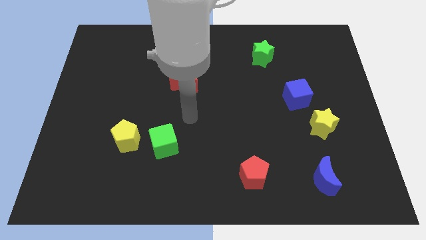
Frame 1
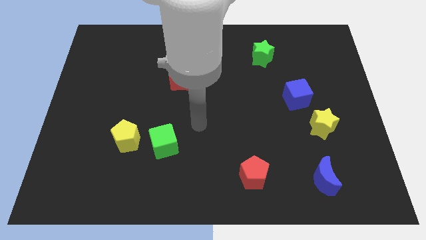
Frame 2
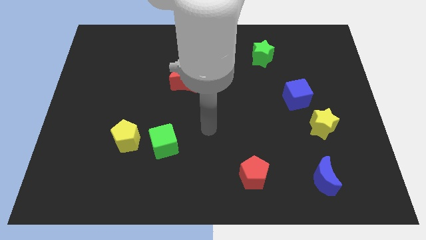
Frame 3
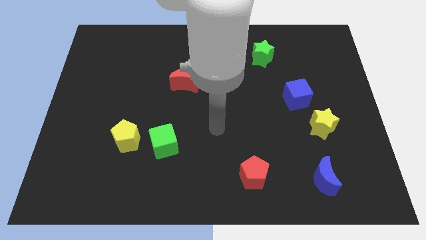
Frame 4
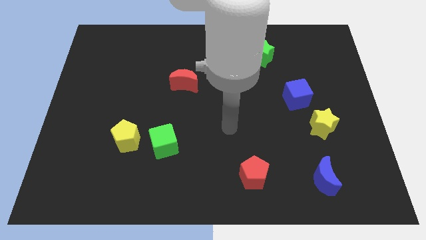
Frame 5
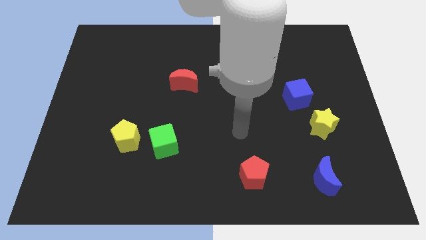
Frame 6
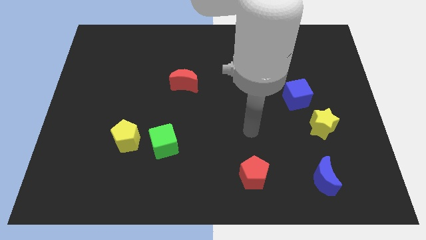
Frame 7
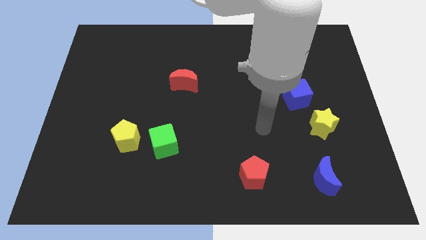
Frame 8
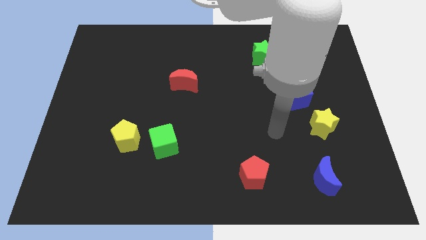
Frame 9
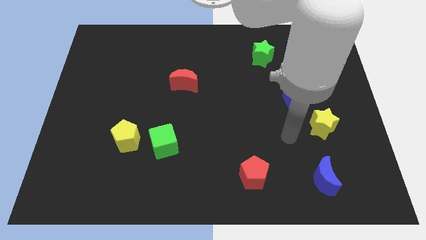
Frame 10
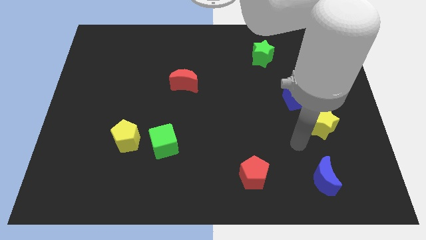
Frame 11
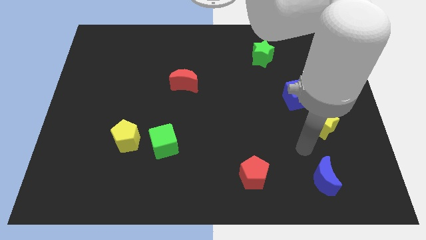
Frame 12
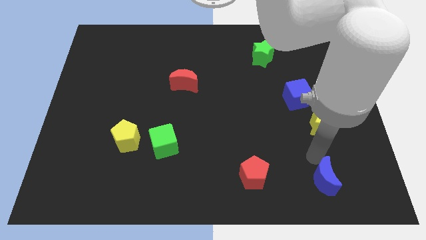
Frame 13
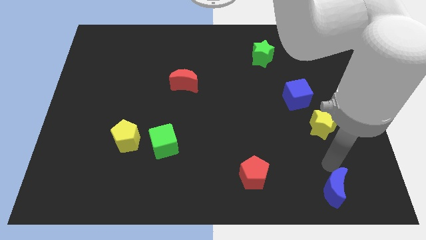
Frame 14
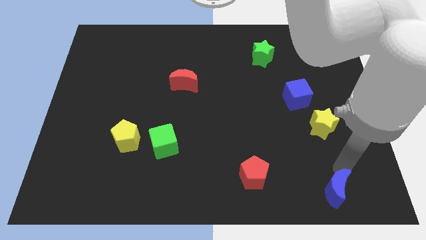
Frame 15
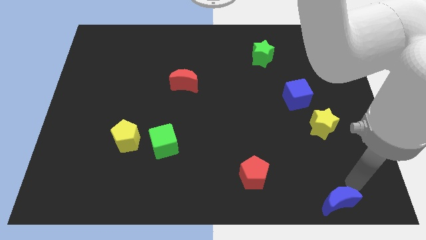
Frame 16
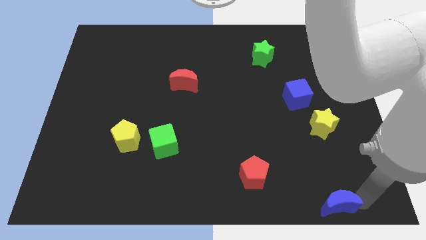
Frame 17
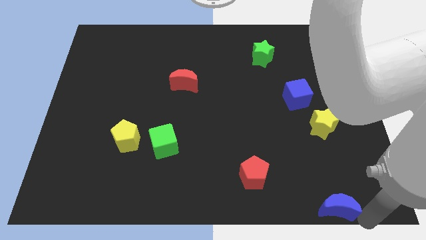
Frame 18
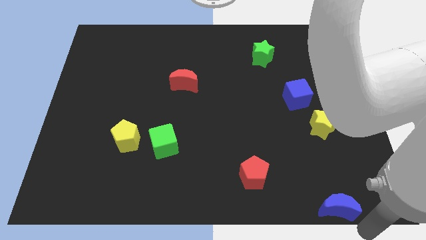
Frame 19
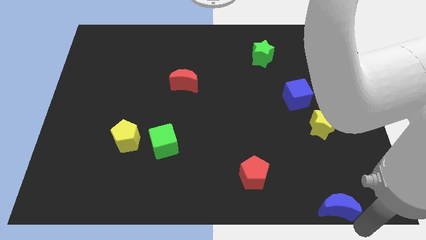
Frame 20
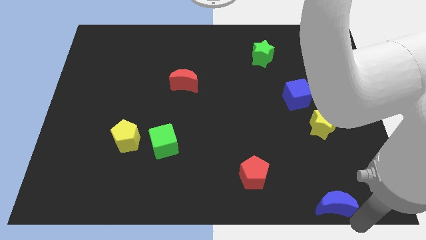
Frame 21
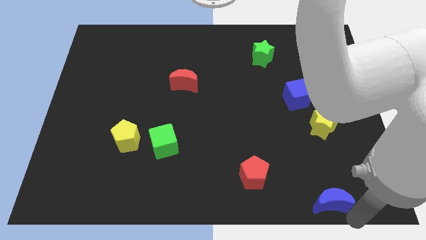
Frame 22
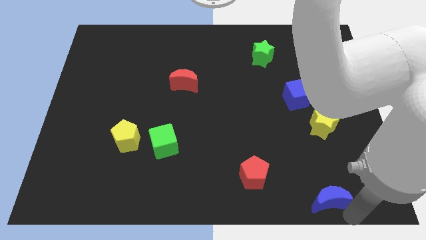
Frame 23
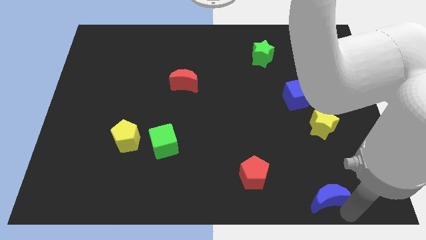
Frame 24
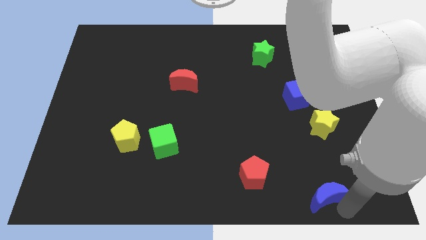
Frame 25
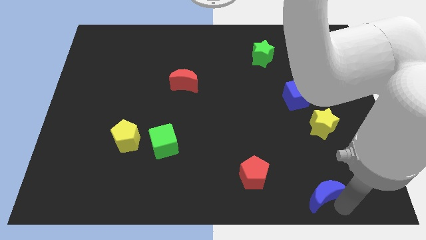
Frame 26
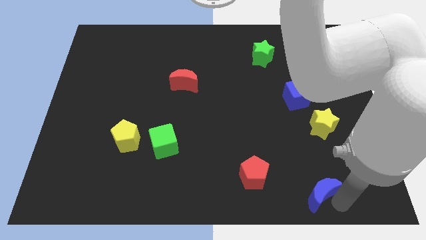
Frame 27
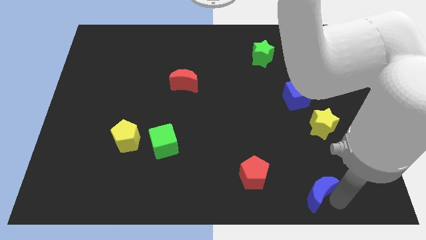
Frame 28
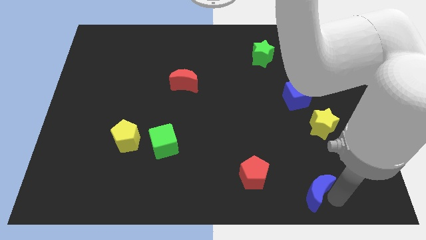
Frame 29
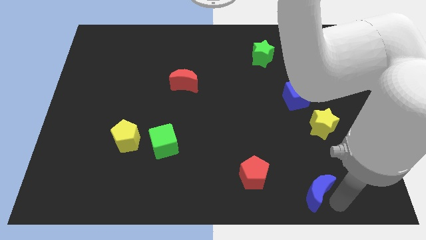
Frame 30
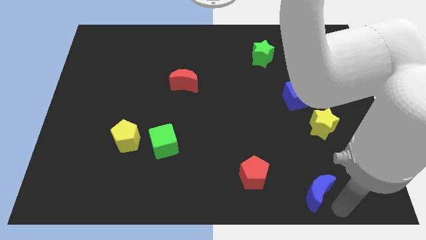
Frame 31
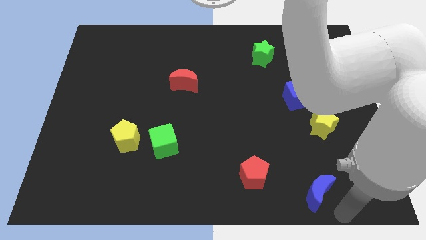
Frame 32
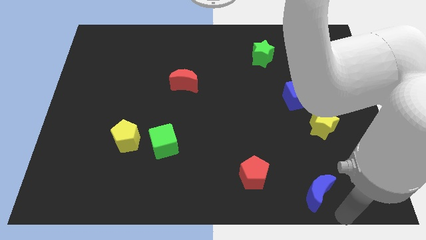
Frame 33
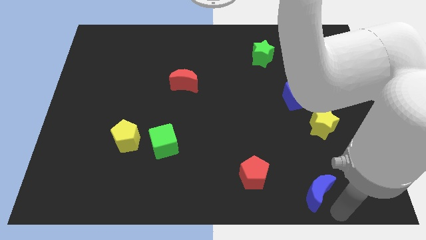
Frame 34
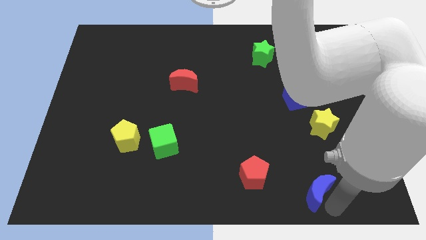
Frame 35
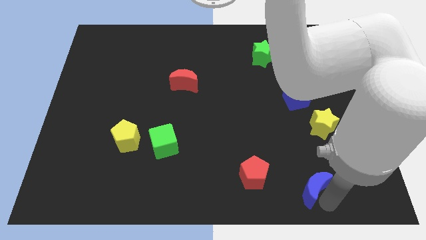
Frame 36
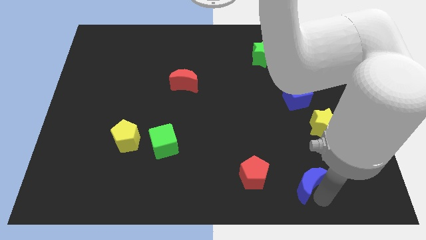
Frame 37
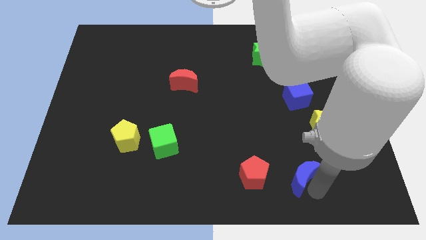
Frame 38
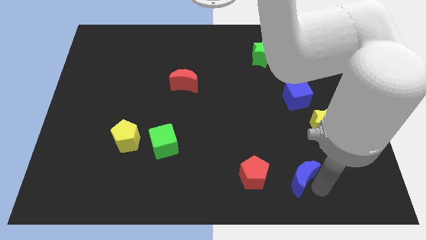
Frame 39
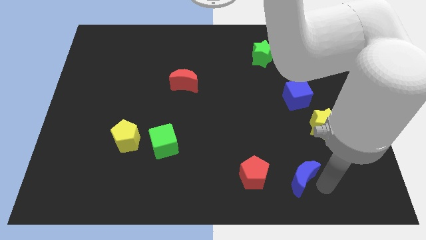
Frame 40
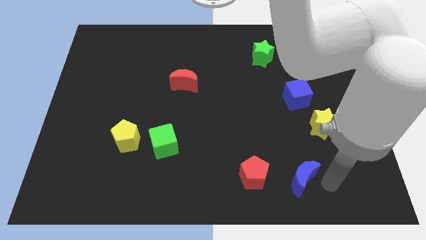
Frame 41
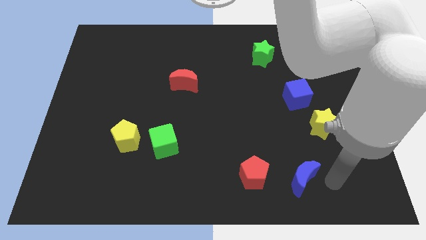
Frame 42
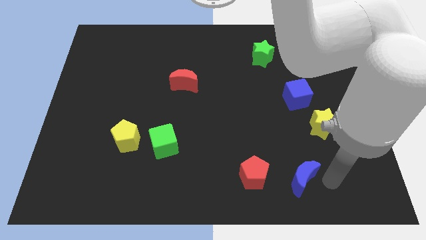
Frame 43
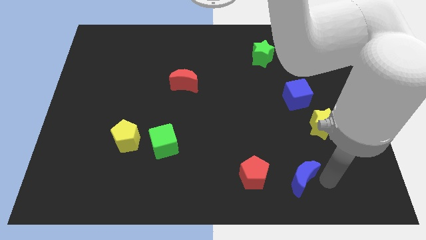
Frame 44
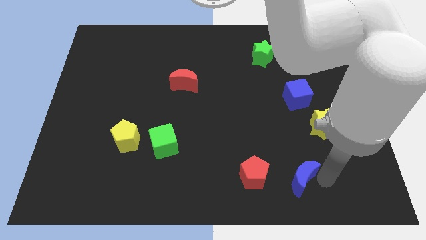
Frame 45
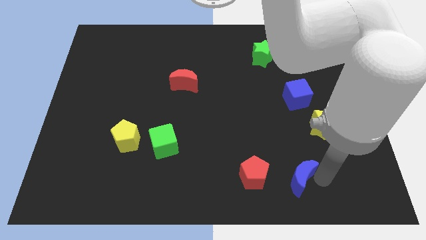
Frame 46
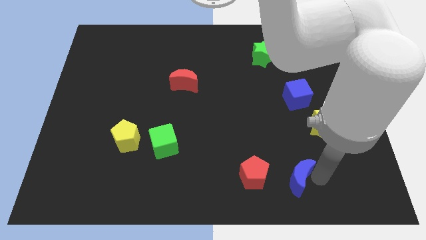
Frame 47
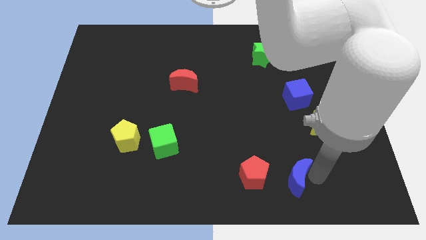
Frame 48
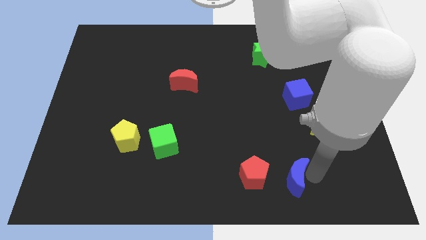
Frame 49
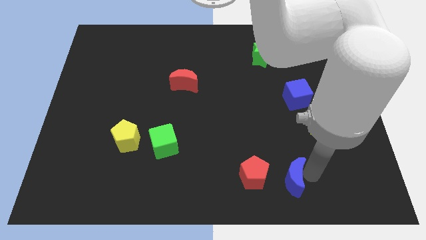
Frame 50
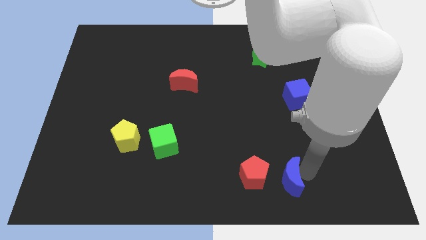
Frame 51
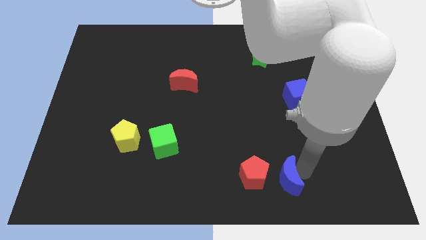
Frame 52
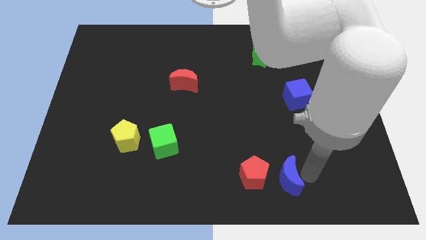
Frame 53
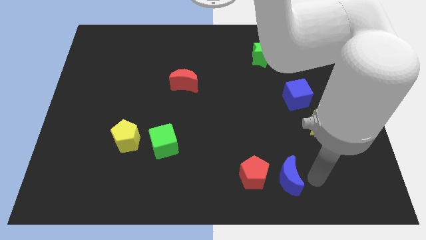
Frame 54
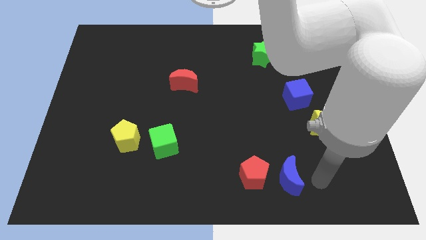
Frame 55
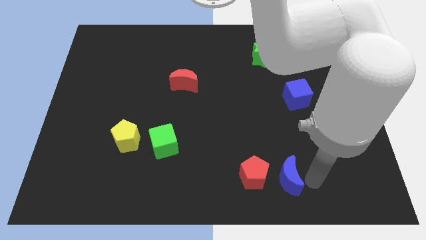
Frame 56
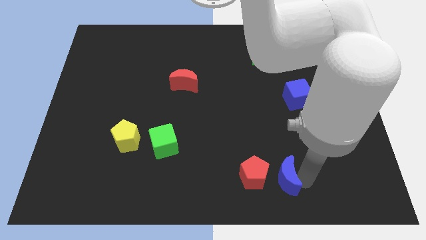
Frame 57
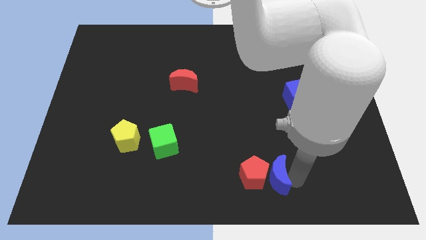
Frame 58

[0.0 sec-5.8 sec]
put the blue moon to the red pentagon

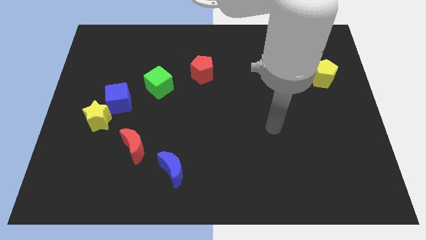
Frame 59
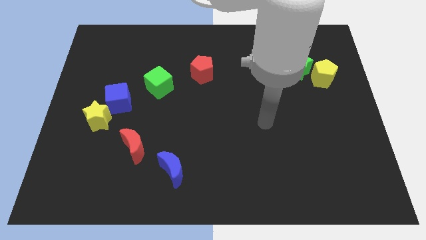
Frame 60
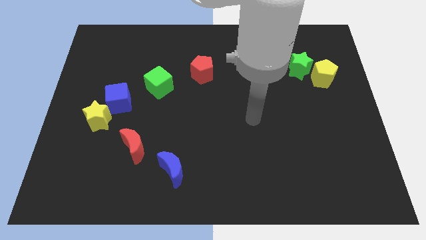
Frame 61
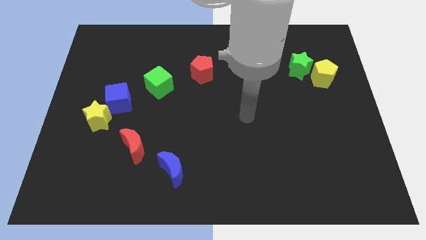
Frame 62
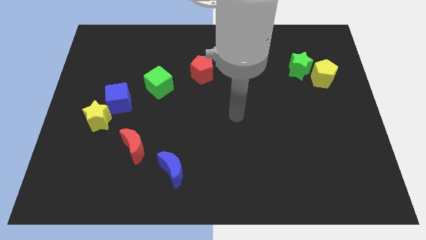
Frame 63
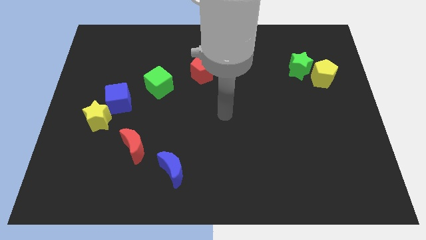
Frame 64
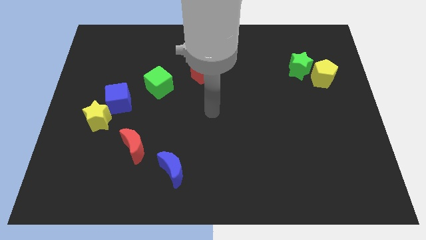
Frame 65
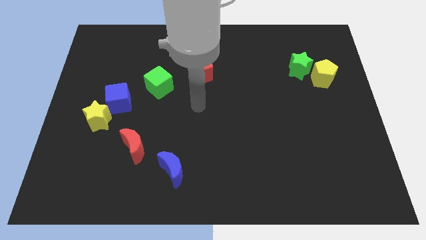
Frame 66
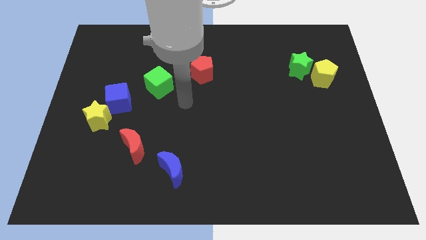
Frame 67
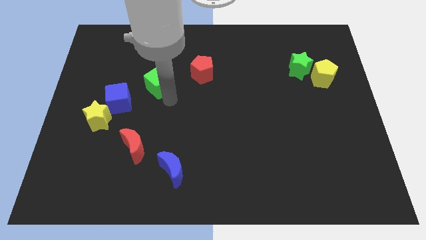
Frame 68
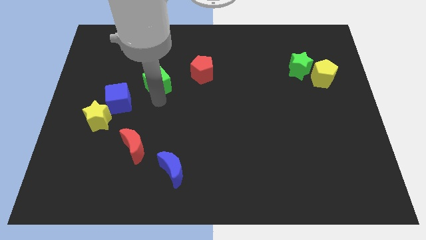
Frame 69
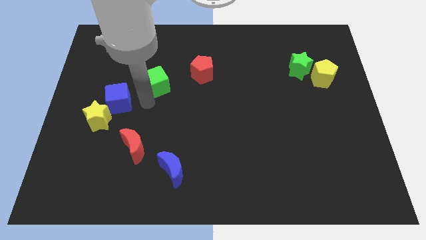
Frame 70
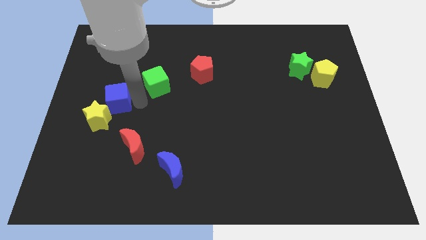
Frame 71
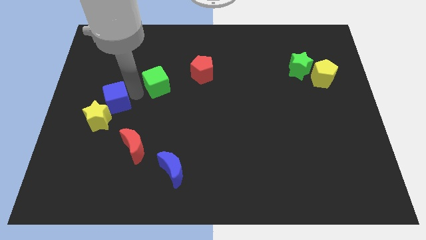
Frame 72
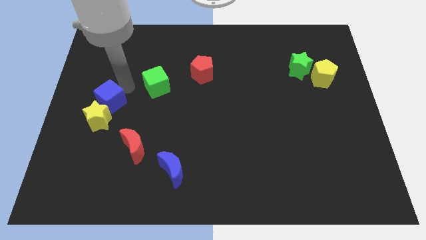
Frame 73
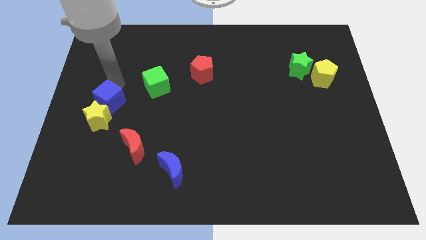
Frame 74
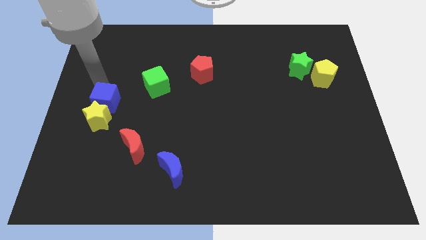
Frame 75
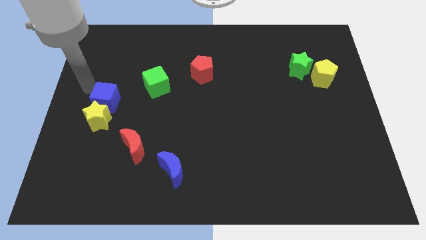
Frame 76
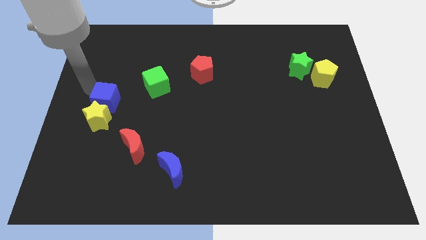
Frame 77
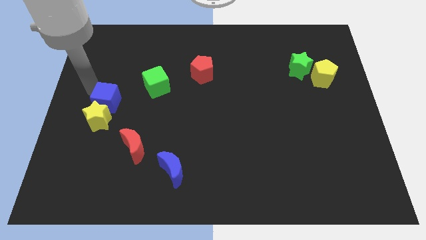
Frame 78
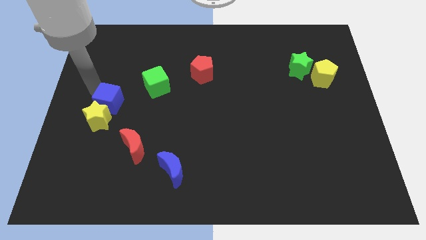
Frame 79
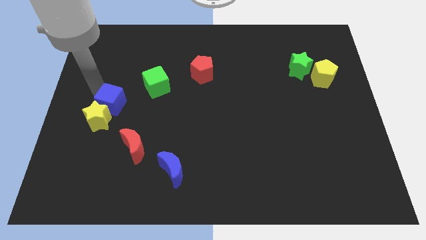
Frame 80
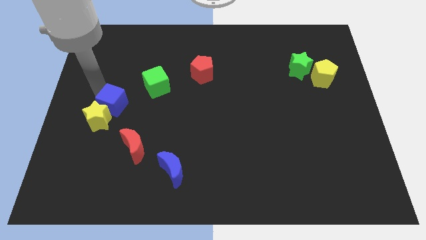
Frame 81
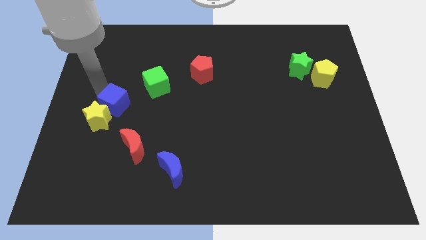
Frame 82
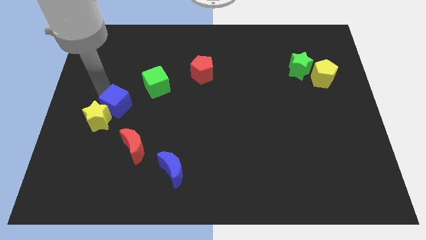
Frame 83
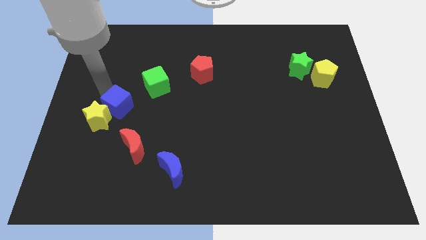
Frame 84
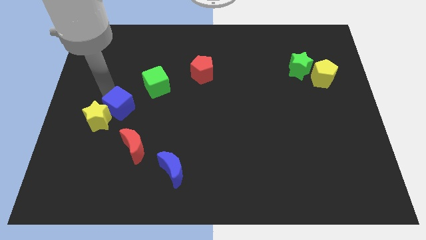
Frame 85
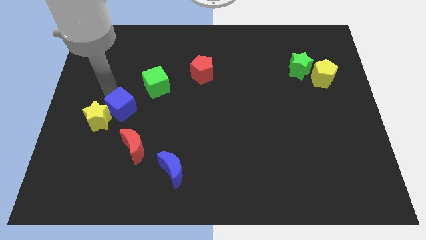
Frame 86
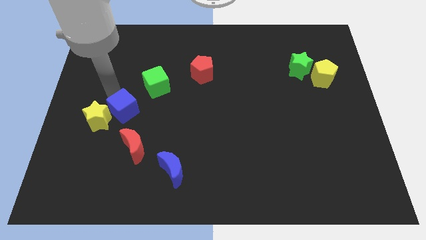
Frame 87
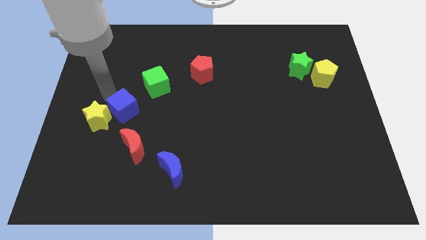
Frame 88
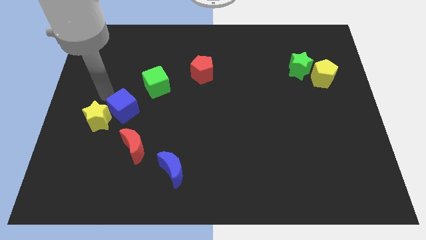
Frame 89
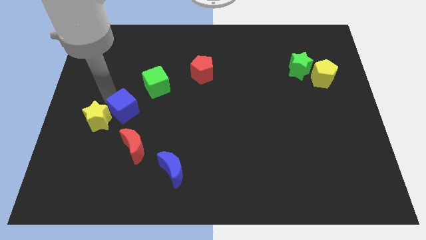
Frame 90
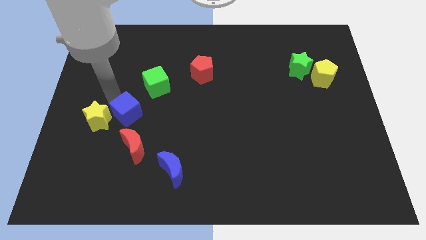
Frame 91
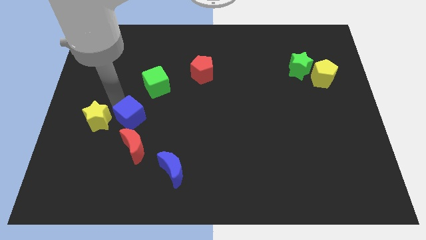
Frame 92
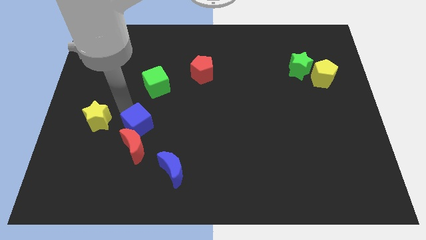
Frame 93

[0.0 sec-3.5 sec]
move the blue cube close to the red moon
